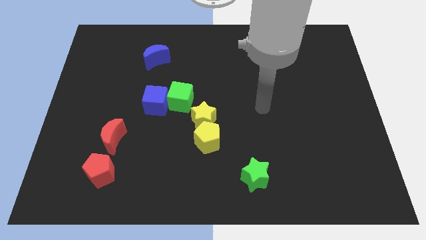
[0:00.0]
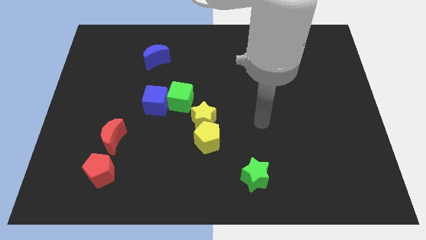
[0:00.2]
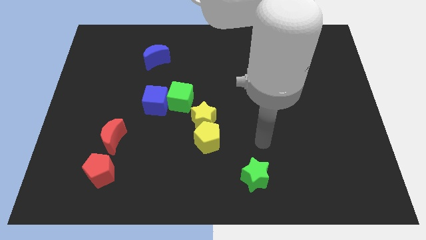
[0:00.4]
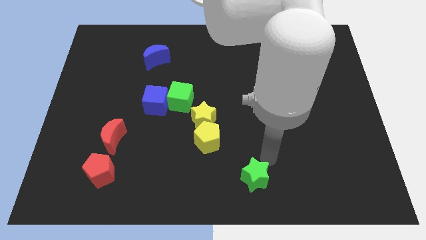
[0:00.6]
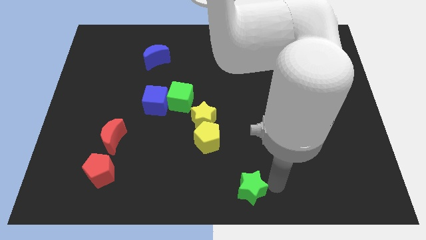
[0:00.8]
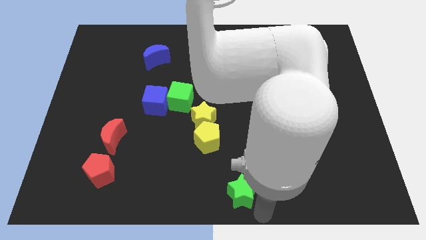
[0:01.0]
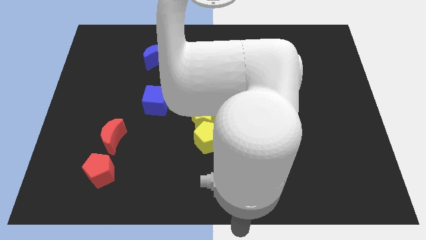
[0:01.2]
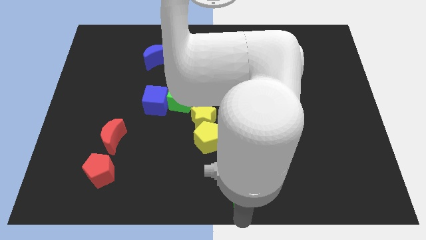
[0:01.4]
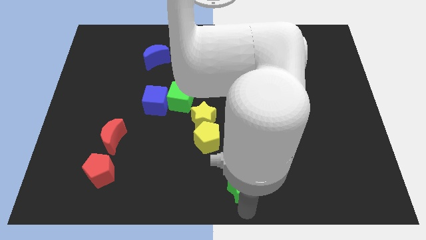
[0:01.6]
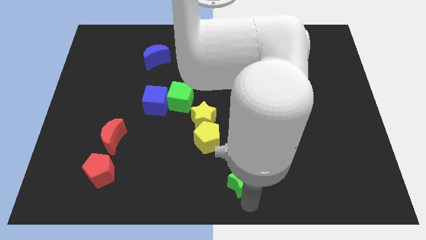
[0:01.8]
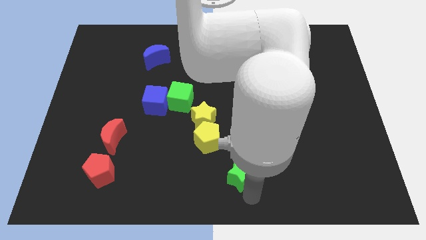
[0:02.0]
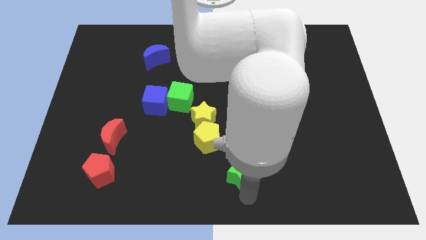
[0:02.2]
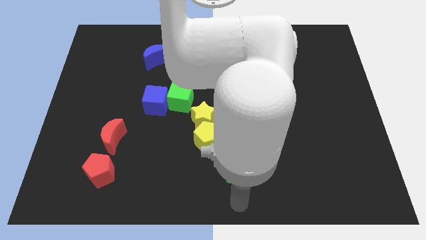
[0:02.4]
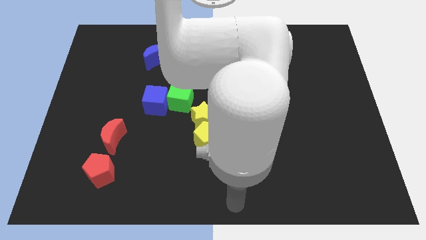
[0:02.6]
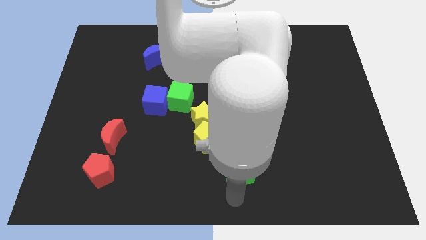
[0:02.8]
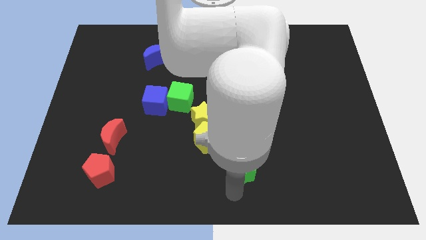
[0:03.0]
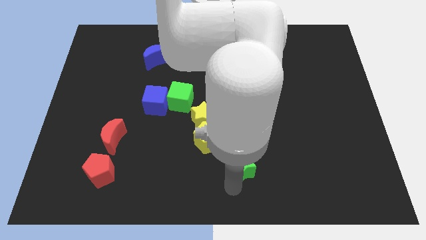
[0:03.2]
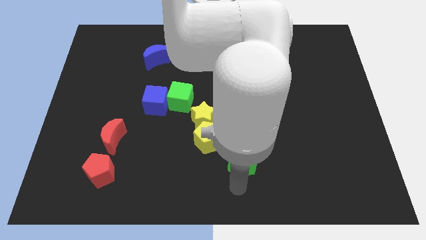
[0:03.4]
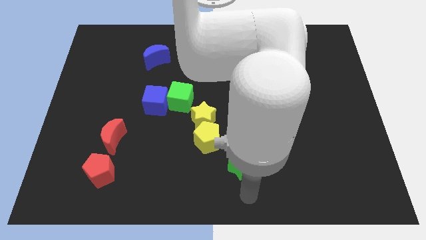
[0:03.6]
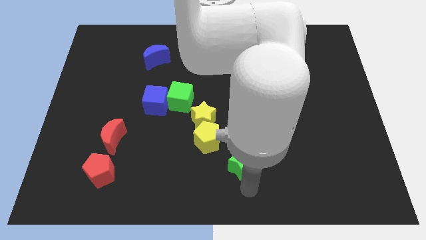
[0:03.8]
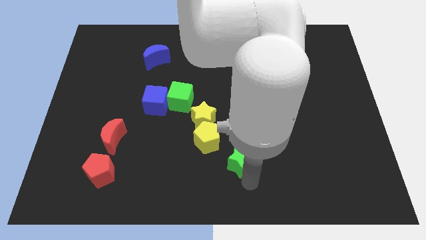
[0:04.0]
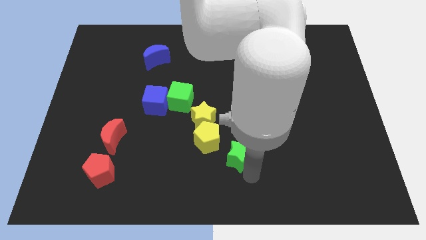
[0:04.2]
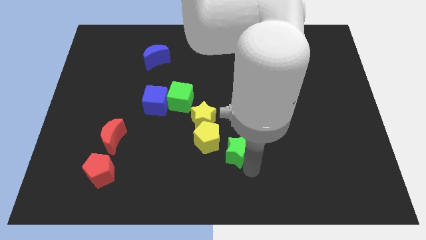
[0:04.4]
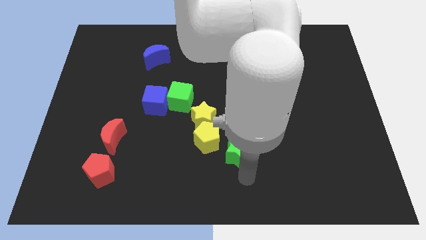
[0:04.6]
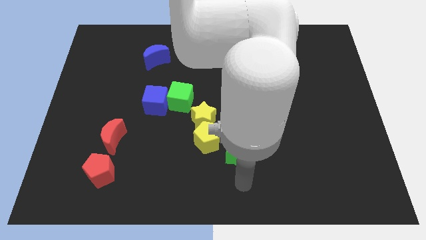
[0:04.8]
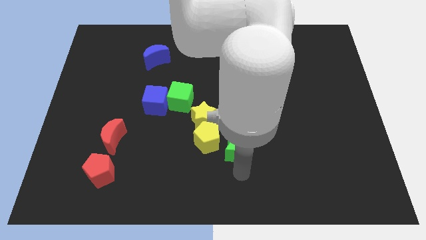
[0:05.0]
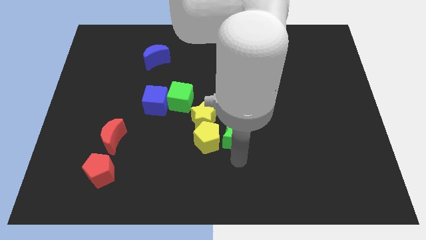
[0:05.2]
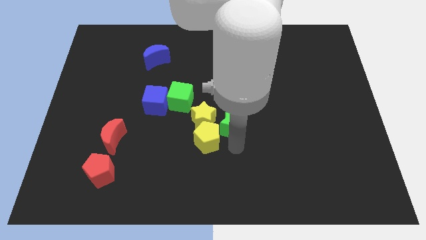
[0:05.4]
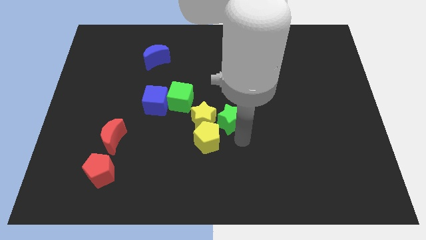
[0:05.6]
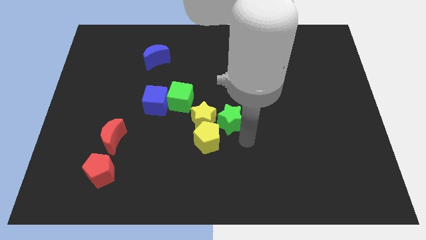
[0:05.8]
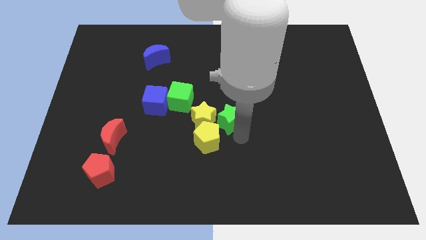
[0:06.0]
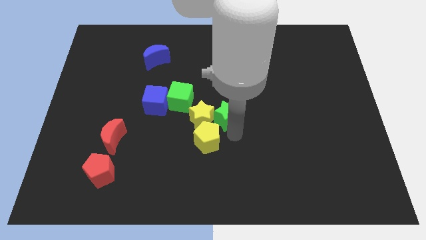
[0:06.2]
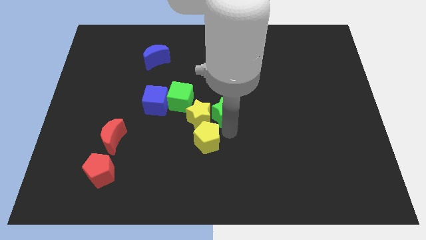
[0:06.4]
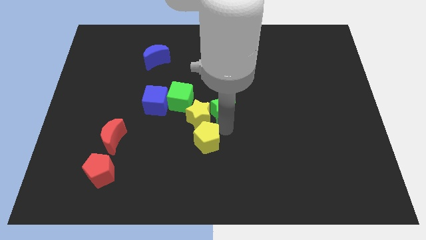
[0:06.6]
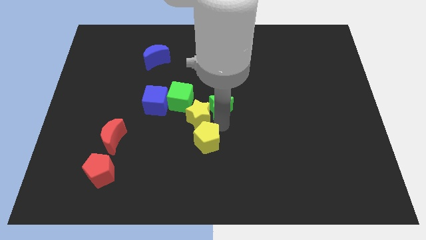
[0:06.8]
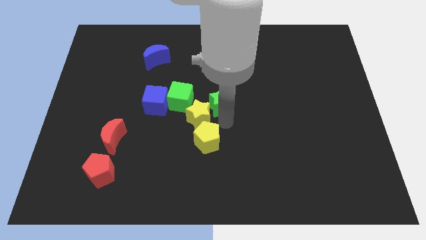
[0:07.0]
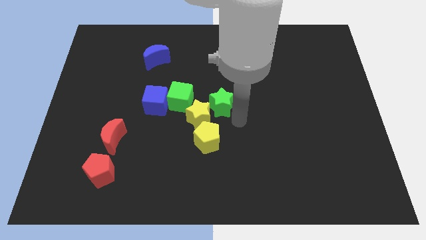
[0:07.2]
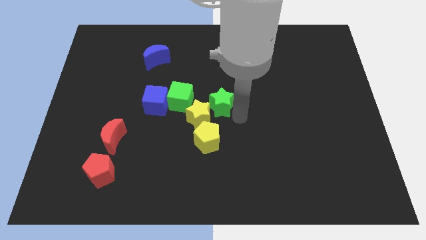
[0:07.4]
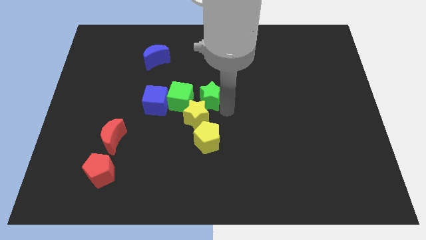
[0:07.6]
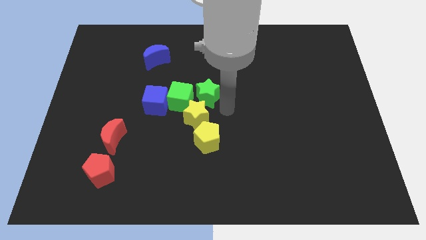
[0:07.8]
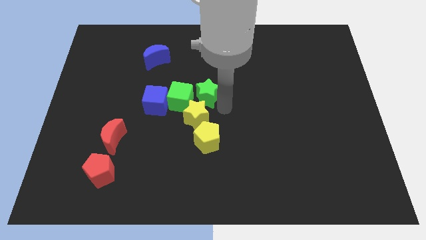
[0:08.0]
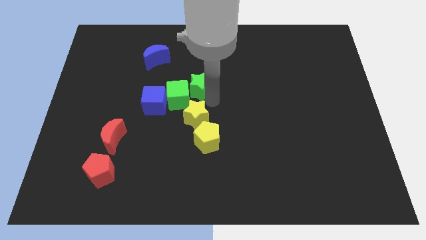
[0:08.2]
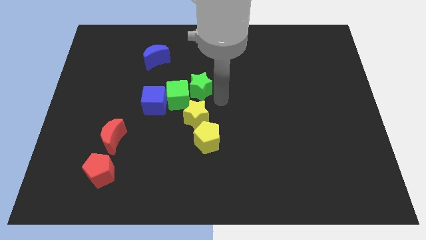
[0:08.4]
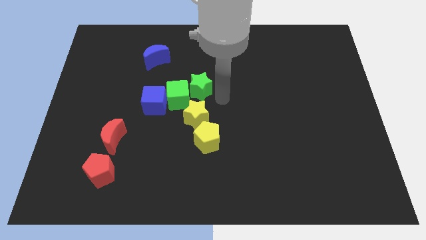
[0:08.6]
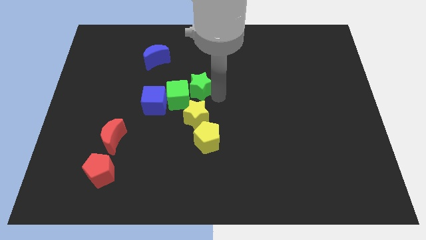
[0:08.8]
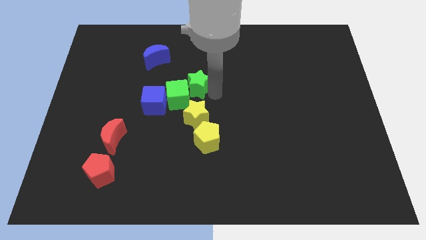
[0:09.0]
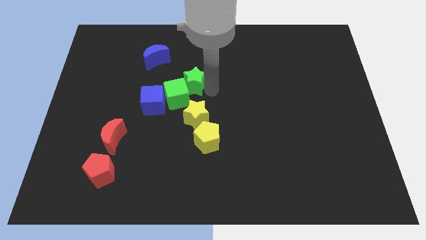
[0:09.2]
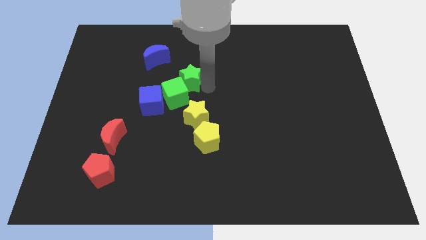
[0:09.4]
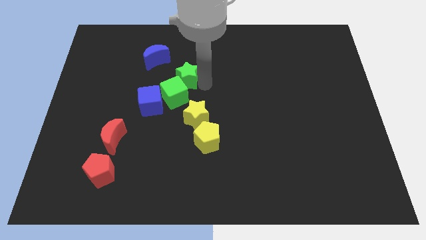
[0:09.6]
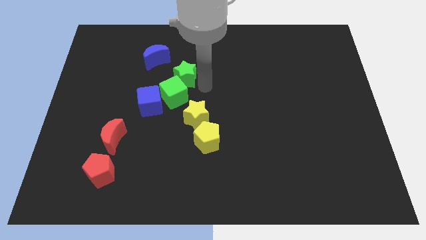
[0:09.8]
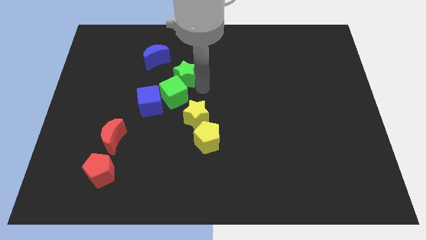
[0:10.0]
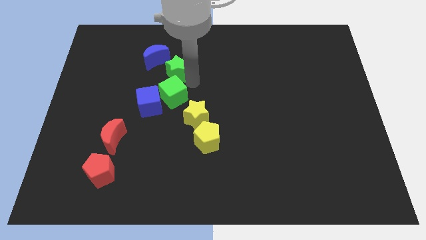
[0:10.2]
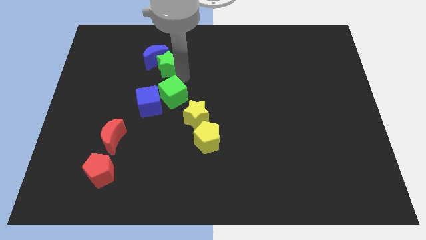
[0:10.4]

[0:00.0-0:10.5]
push the green star towards the blue moon

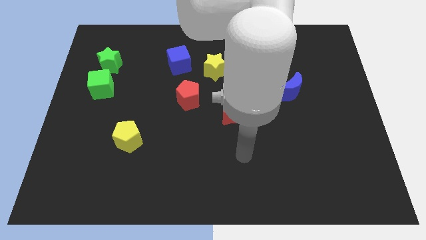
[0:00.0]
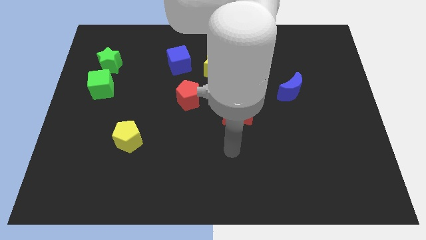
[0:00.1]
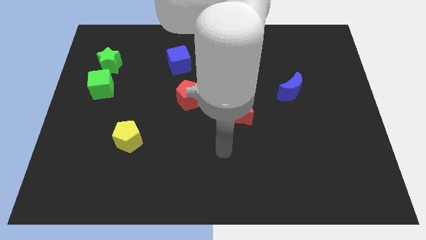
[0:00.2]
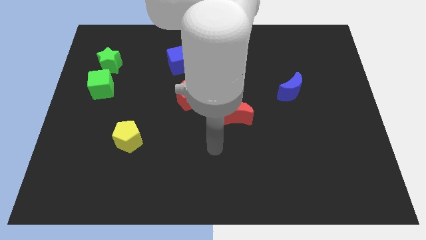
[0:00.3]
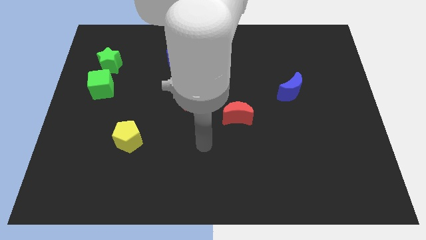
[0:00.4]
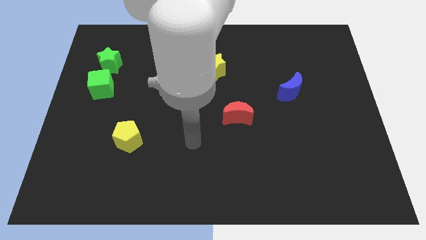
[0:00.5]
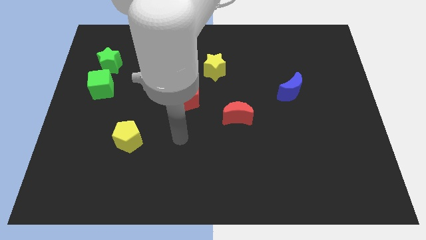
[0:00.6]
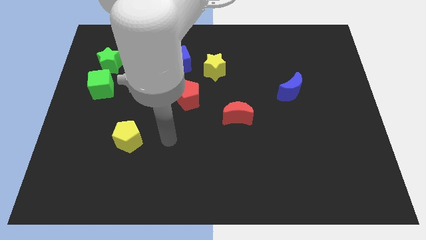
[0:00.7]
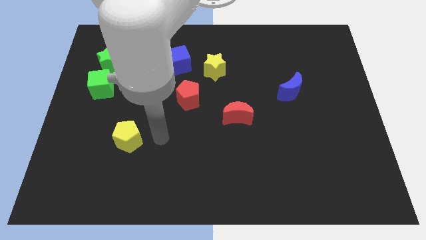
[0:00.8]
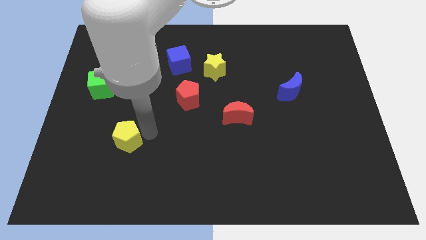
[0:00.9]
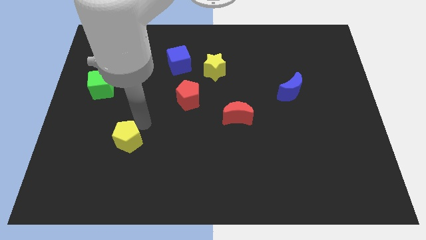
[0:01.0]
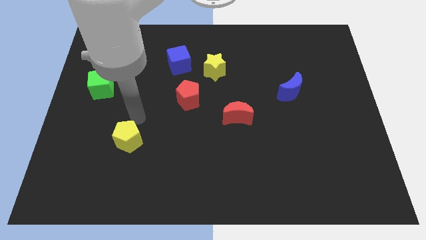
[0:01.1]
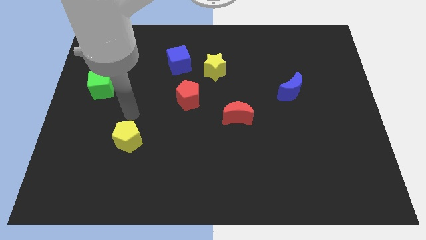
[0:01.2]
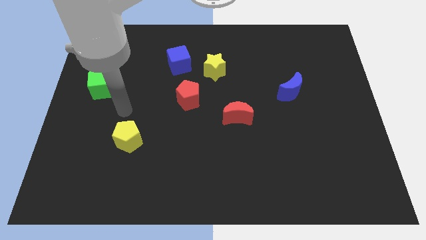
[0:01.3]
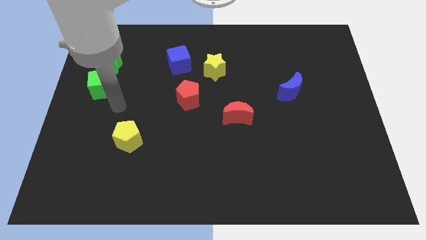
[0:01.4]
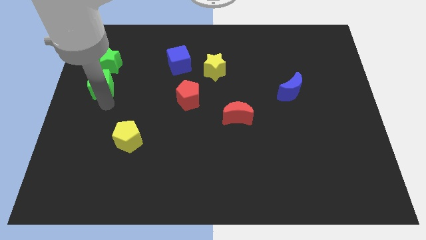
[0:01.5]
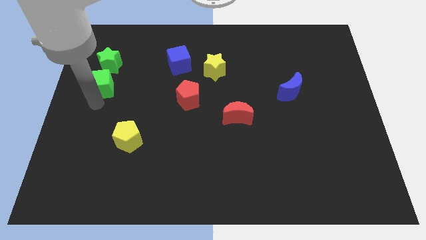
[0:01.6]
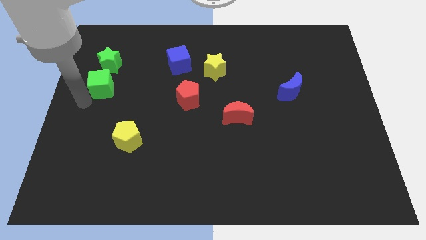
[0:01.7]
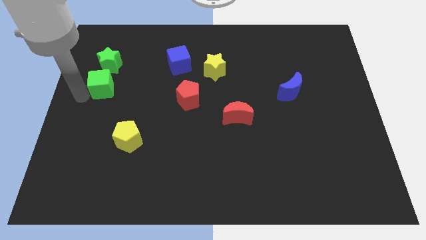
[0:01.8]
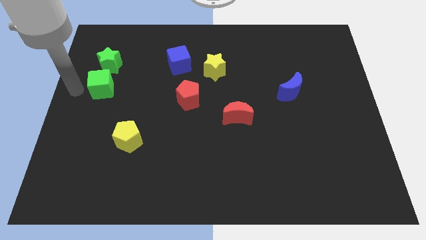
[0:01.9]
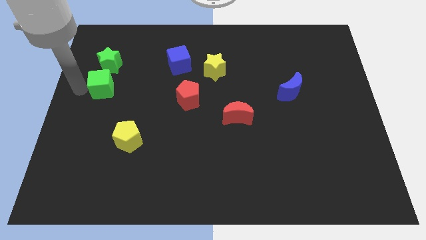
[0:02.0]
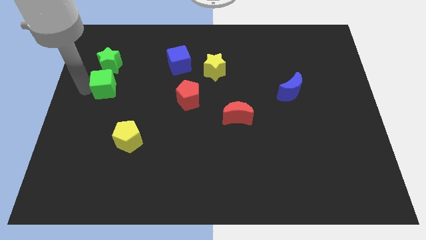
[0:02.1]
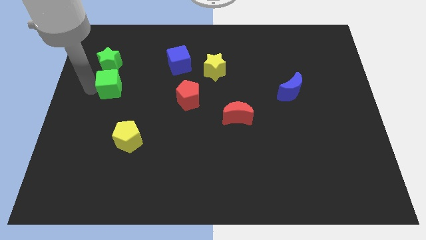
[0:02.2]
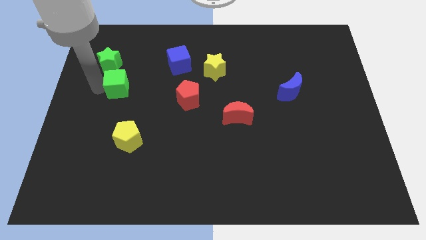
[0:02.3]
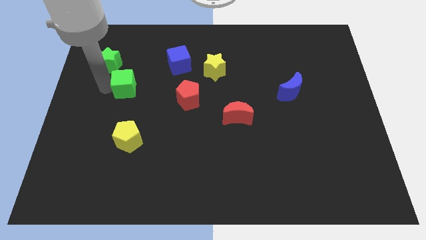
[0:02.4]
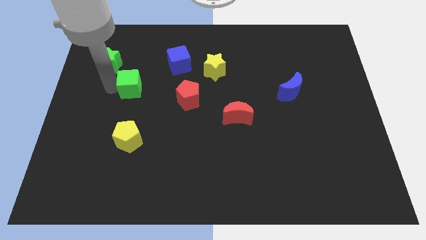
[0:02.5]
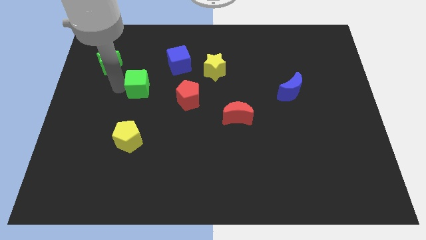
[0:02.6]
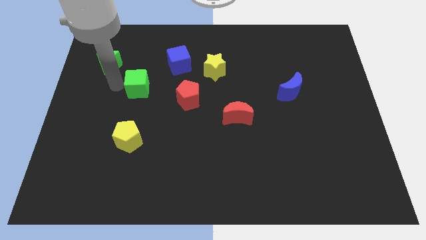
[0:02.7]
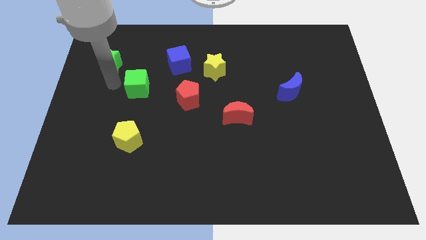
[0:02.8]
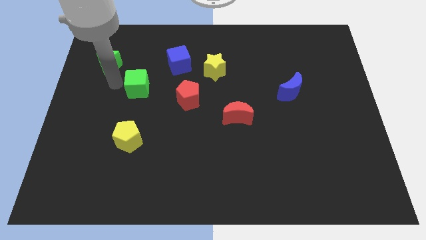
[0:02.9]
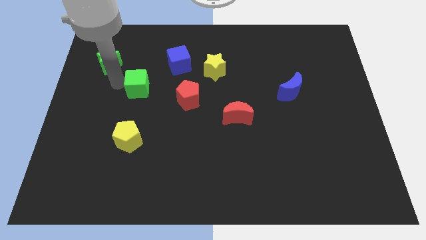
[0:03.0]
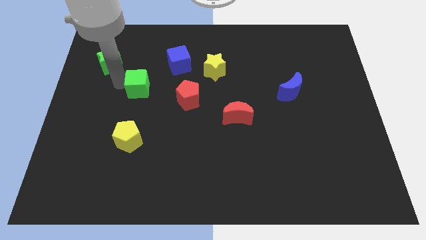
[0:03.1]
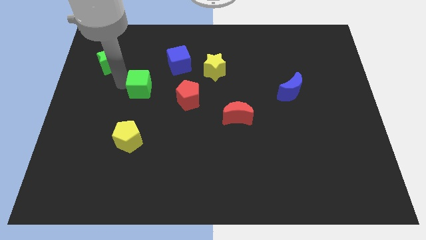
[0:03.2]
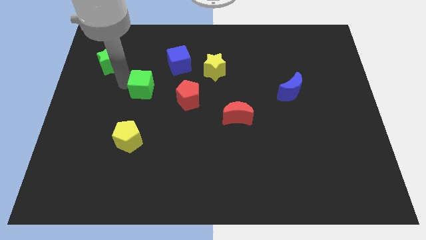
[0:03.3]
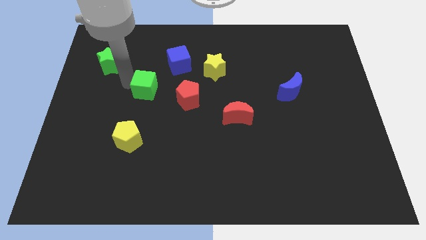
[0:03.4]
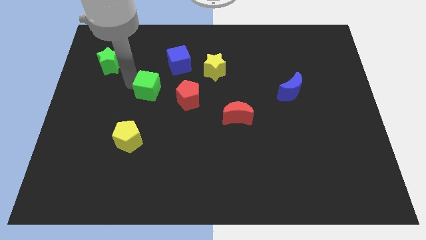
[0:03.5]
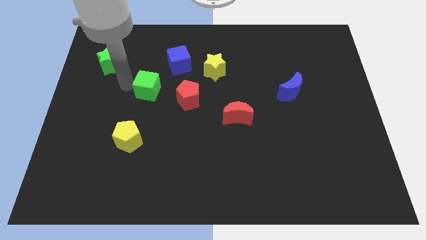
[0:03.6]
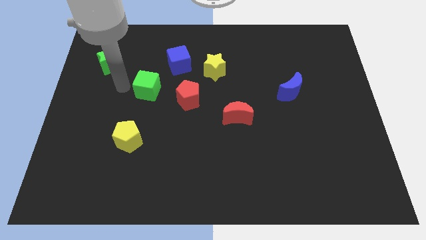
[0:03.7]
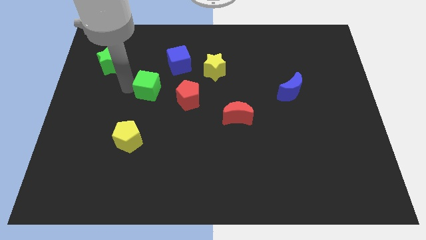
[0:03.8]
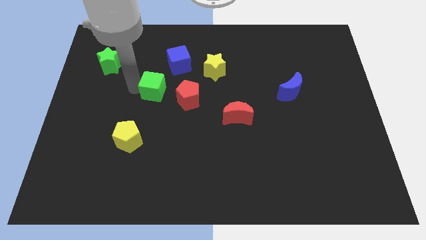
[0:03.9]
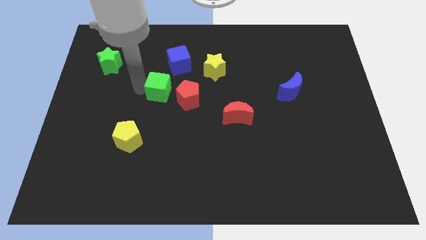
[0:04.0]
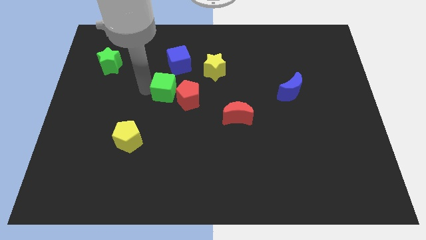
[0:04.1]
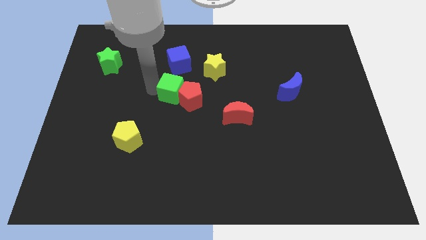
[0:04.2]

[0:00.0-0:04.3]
move the green cube towards the red pentagon
